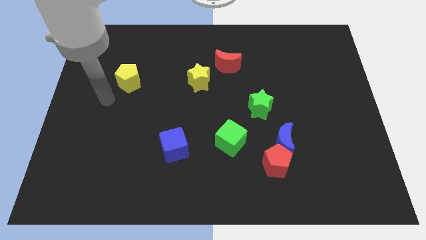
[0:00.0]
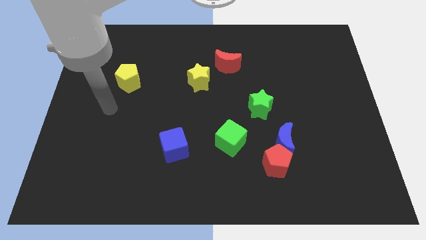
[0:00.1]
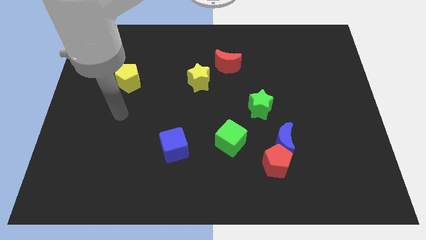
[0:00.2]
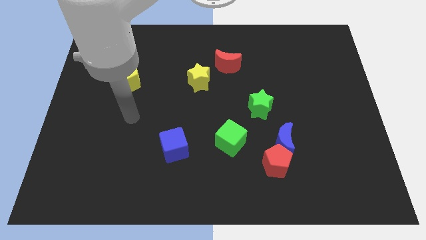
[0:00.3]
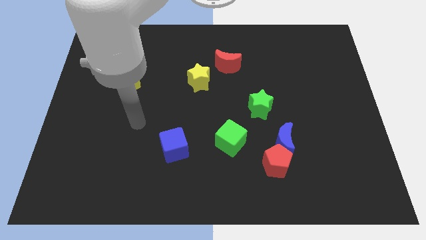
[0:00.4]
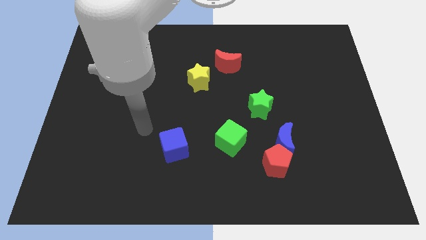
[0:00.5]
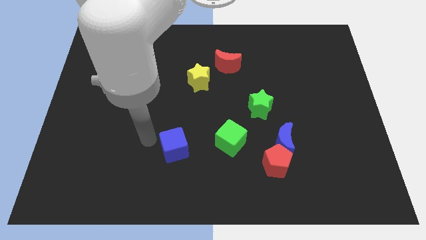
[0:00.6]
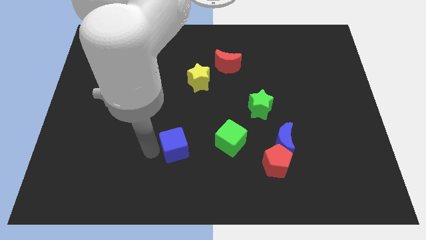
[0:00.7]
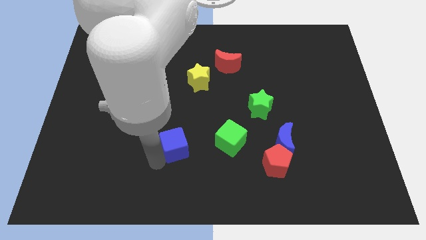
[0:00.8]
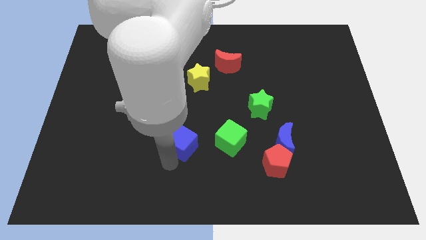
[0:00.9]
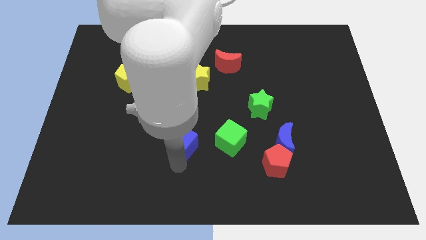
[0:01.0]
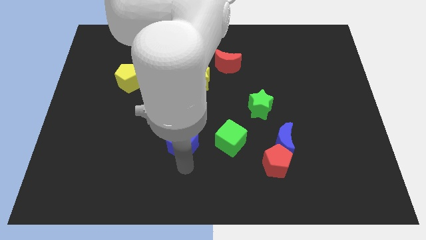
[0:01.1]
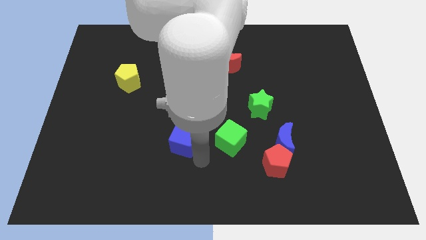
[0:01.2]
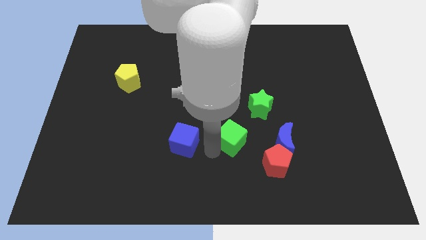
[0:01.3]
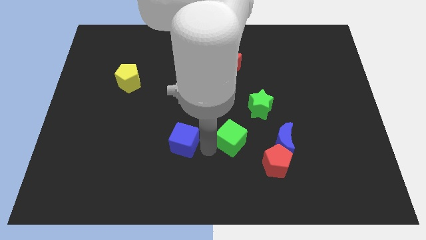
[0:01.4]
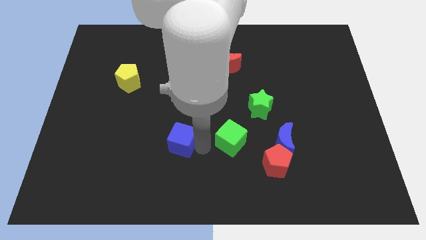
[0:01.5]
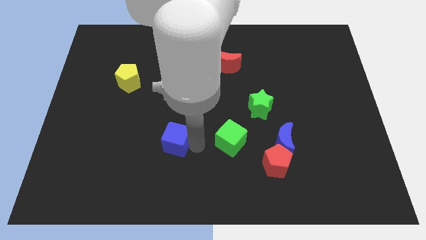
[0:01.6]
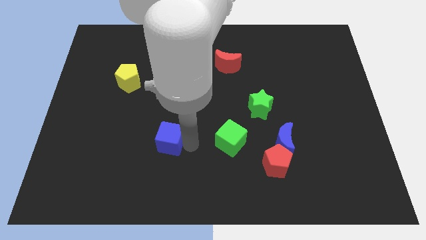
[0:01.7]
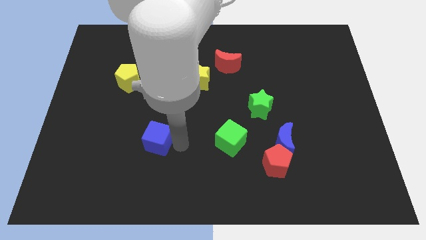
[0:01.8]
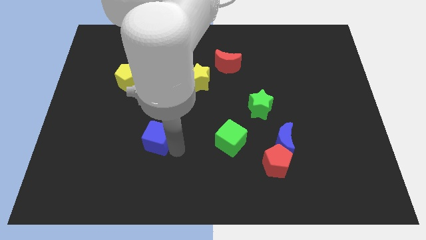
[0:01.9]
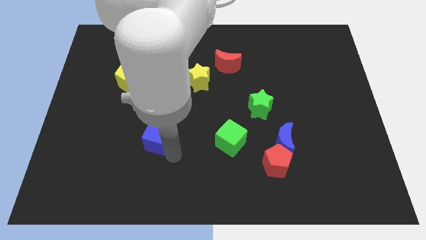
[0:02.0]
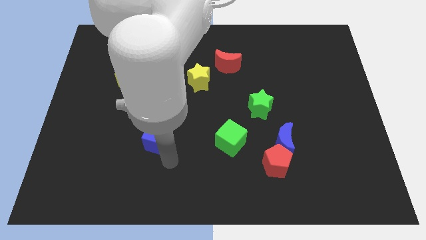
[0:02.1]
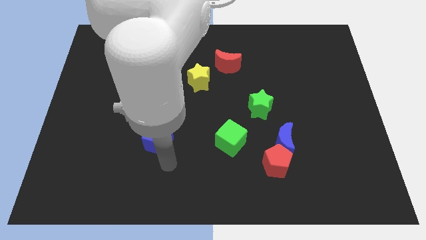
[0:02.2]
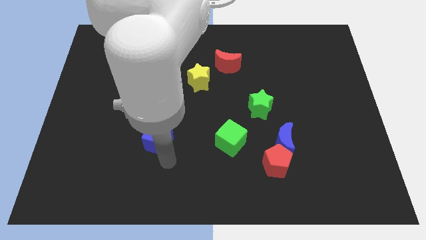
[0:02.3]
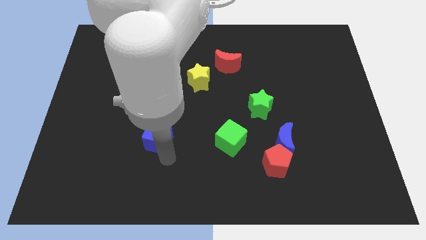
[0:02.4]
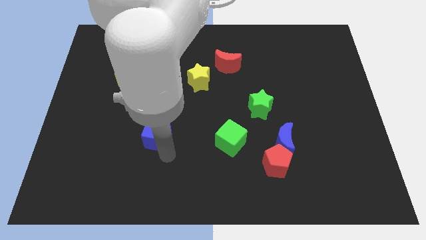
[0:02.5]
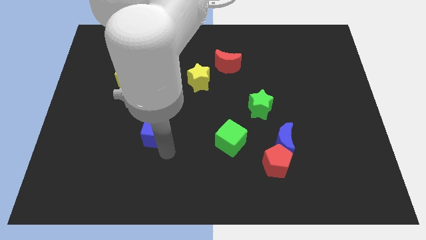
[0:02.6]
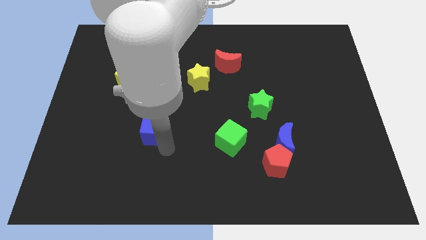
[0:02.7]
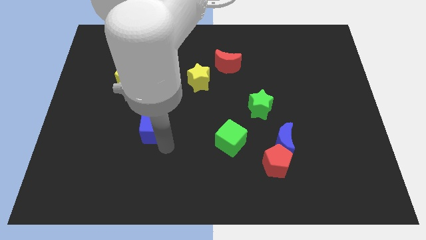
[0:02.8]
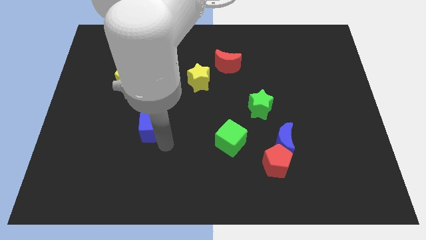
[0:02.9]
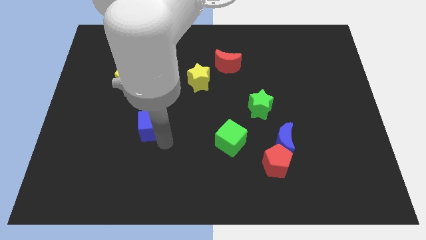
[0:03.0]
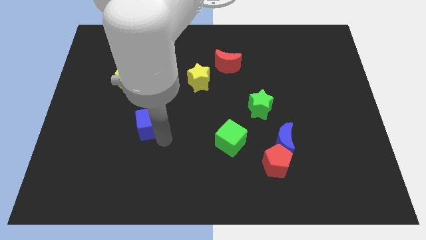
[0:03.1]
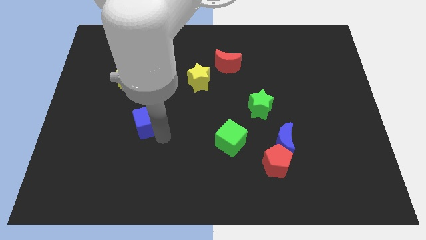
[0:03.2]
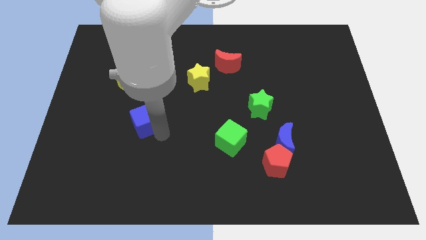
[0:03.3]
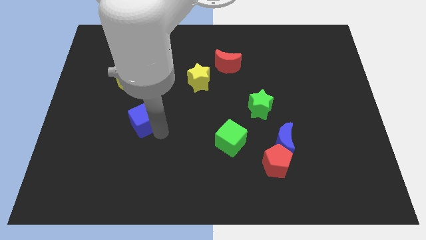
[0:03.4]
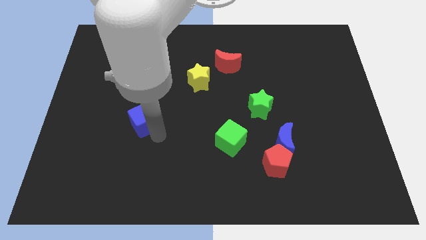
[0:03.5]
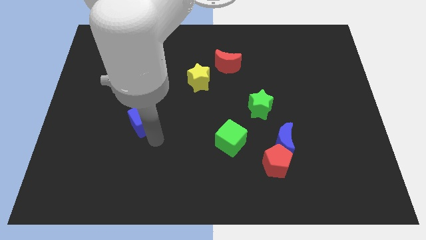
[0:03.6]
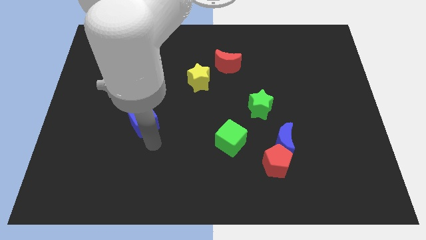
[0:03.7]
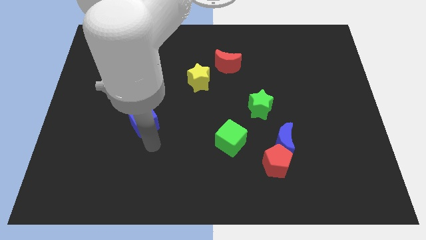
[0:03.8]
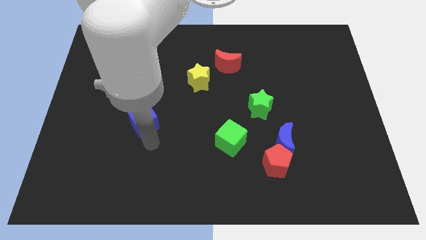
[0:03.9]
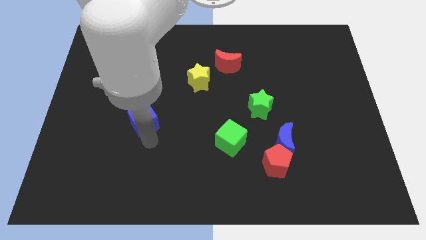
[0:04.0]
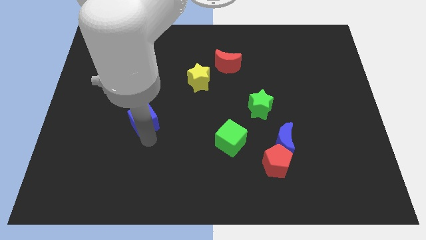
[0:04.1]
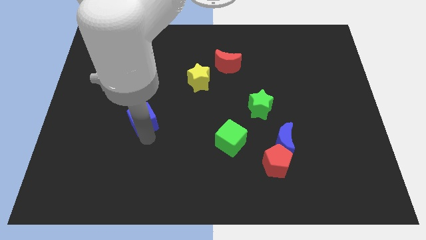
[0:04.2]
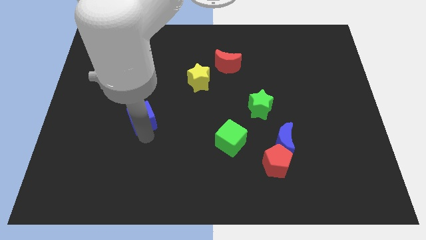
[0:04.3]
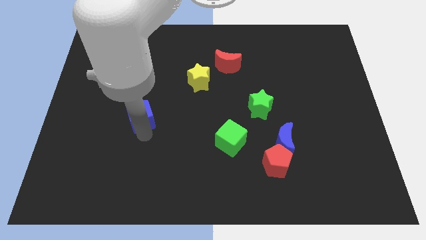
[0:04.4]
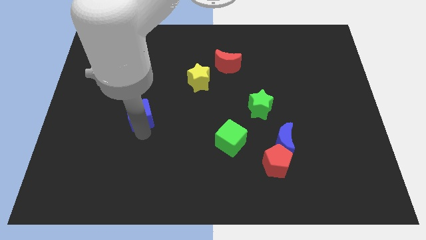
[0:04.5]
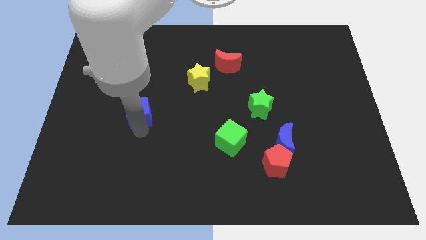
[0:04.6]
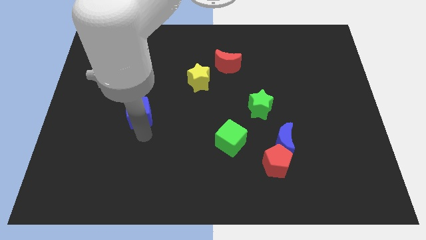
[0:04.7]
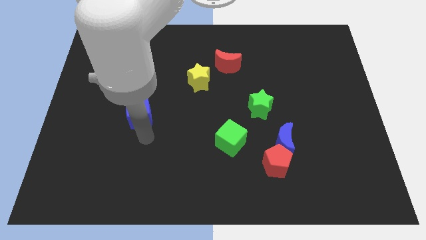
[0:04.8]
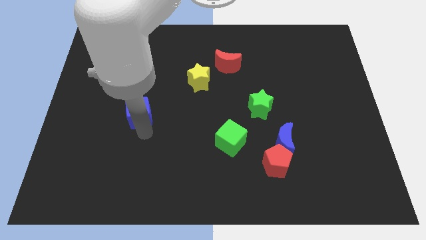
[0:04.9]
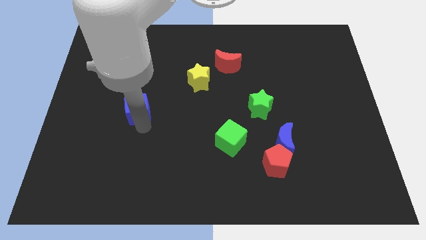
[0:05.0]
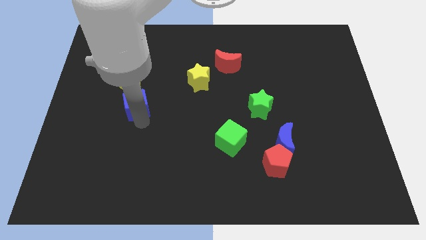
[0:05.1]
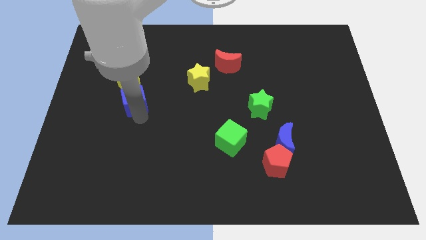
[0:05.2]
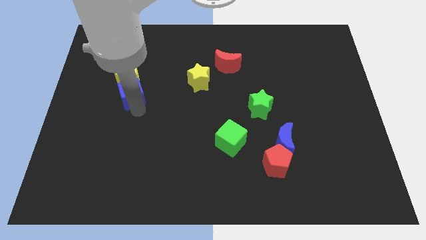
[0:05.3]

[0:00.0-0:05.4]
move the blue cube close to the yellow pentagon

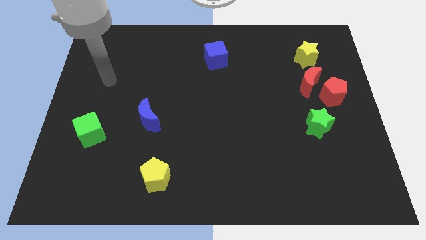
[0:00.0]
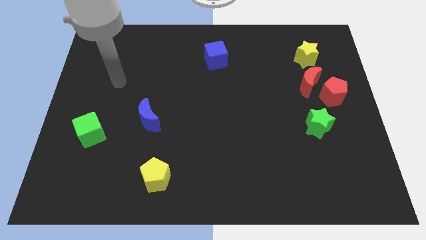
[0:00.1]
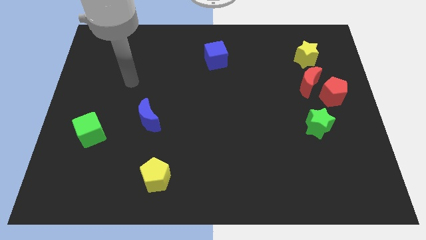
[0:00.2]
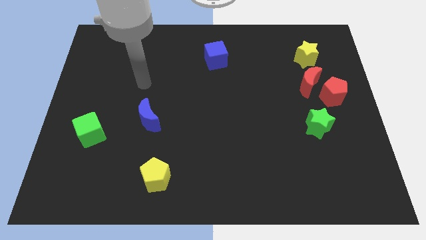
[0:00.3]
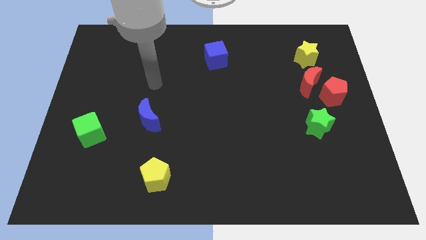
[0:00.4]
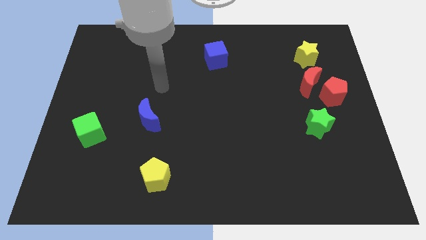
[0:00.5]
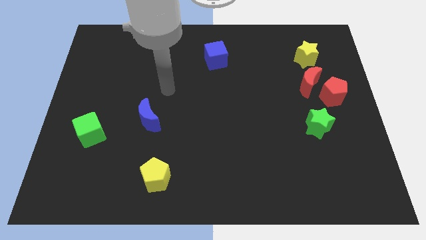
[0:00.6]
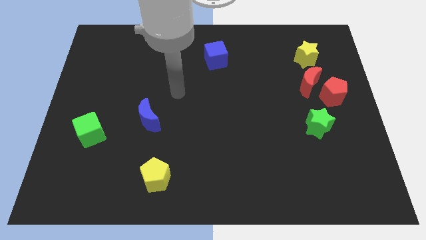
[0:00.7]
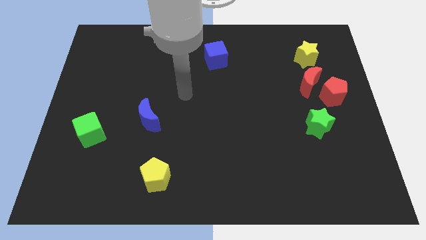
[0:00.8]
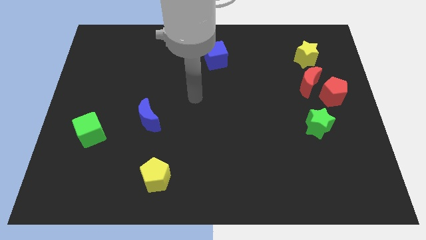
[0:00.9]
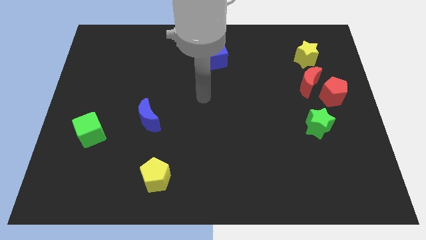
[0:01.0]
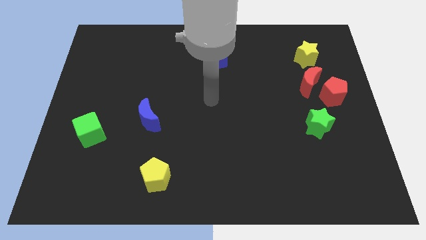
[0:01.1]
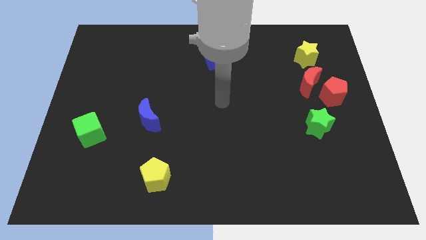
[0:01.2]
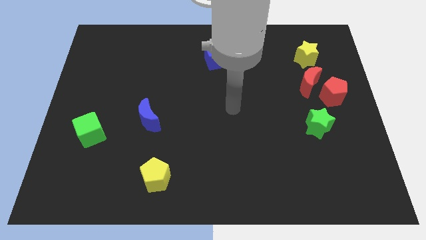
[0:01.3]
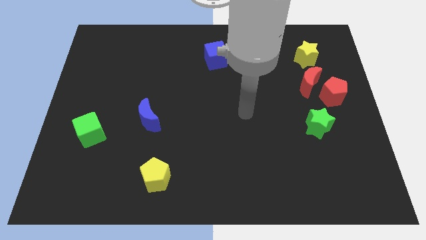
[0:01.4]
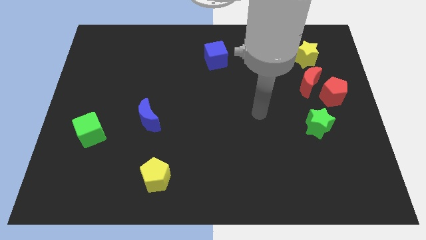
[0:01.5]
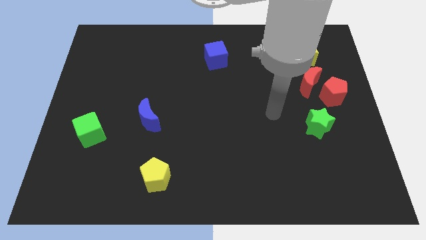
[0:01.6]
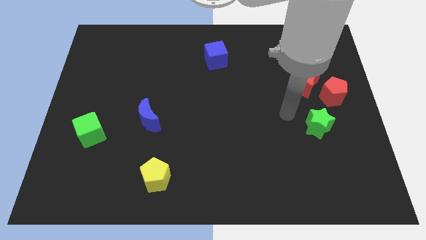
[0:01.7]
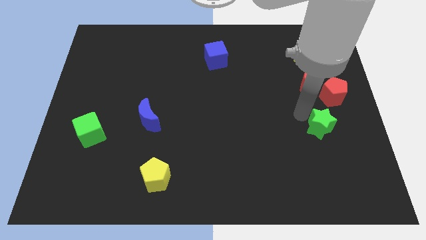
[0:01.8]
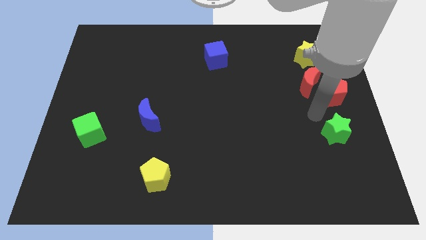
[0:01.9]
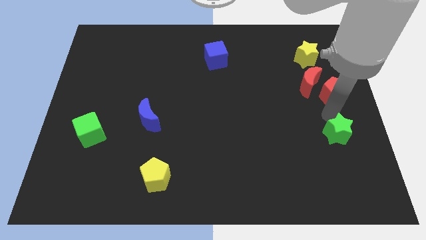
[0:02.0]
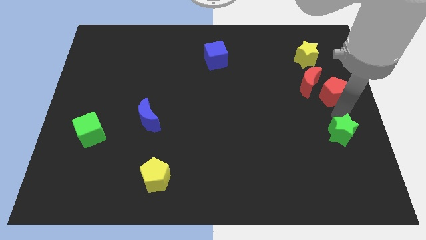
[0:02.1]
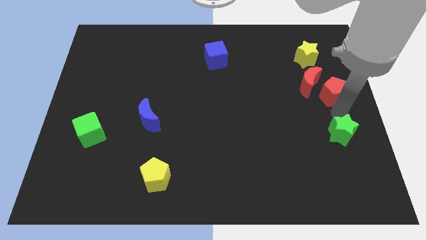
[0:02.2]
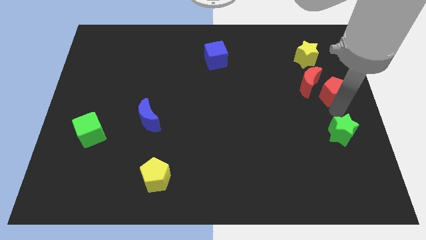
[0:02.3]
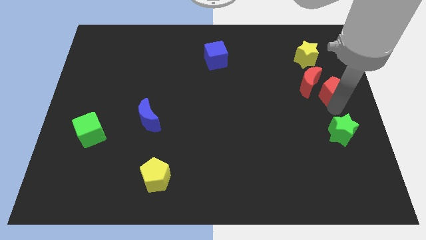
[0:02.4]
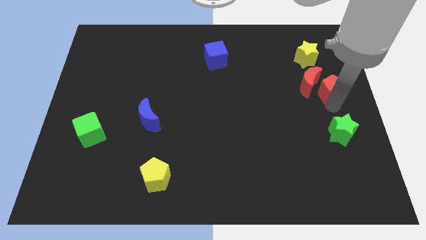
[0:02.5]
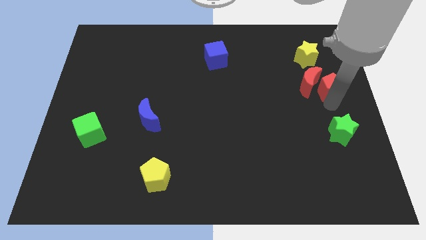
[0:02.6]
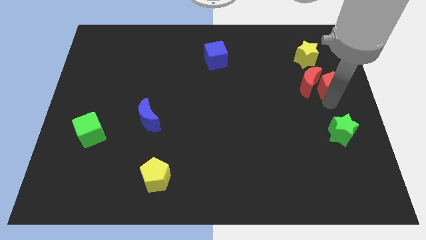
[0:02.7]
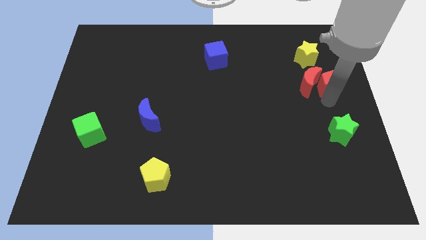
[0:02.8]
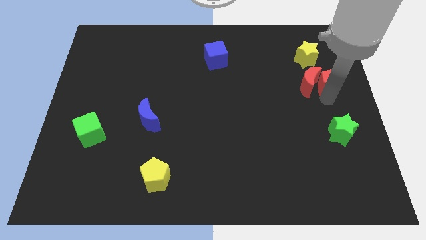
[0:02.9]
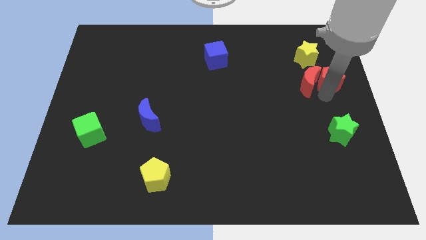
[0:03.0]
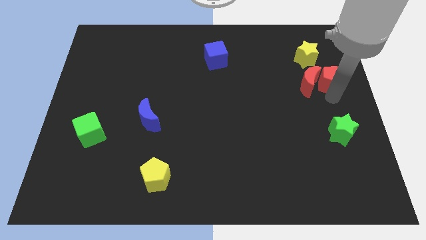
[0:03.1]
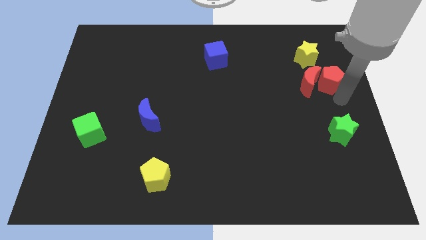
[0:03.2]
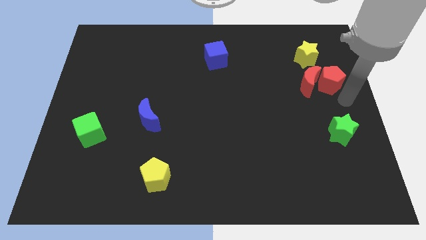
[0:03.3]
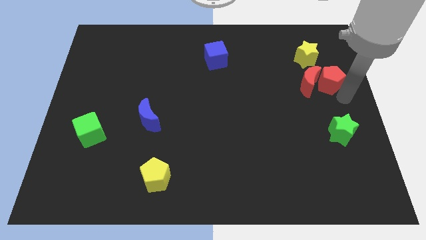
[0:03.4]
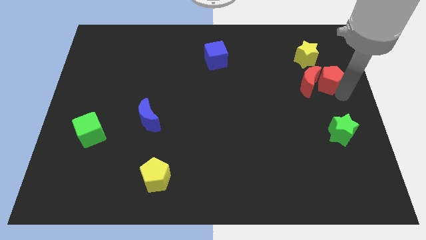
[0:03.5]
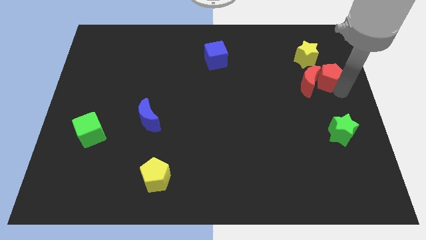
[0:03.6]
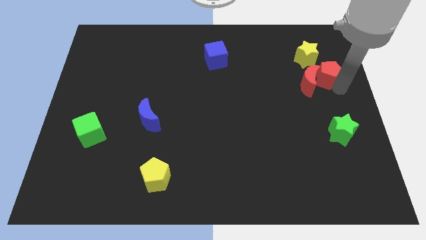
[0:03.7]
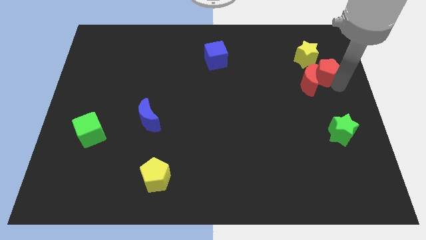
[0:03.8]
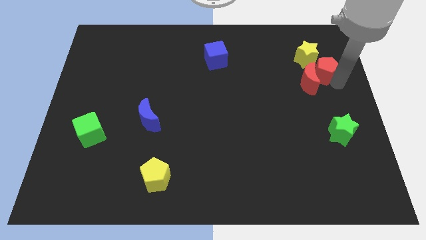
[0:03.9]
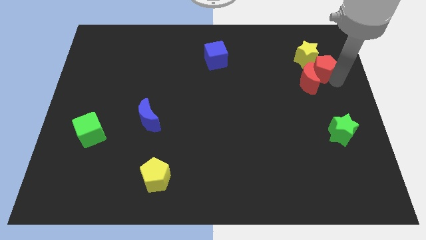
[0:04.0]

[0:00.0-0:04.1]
push the red pentagon towards the yellow star
